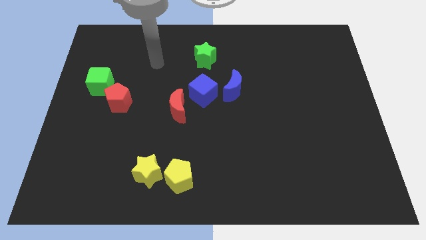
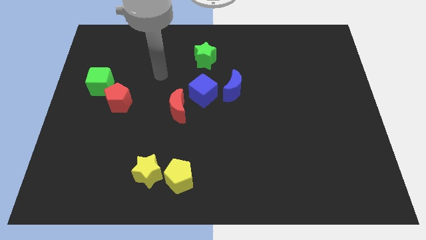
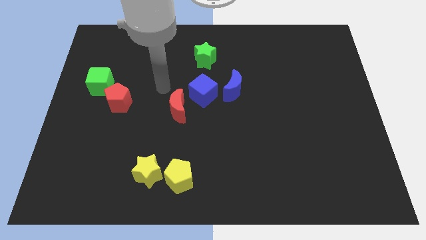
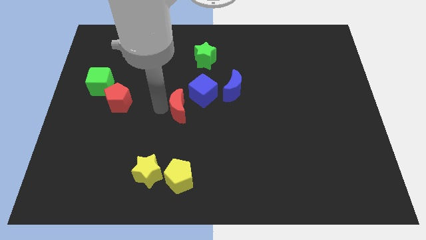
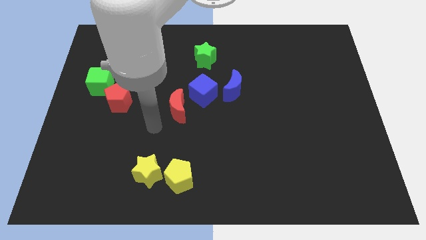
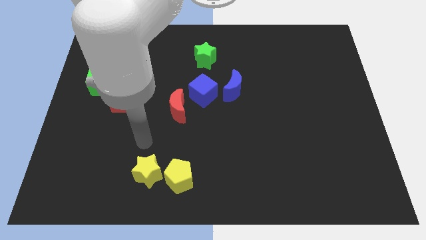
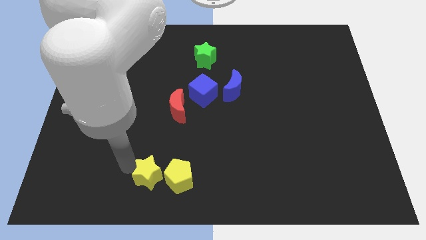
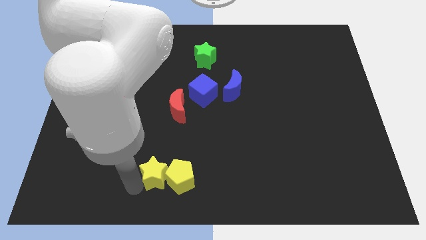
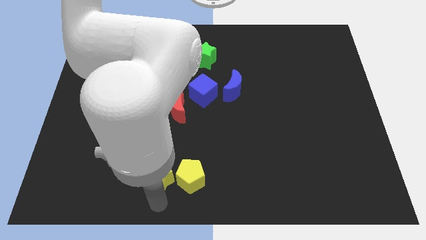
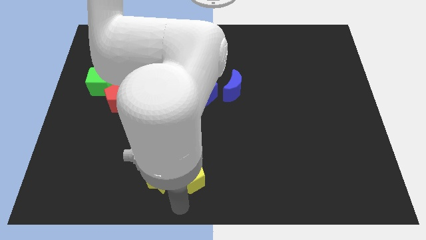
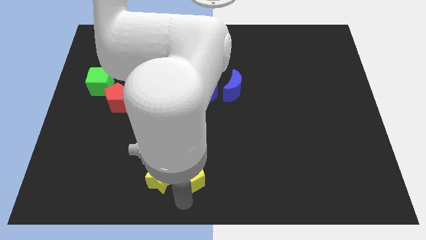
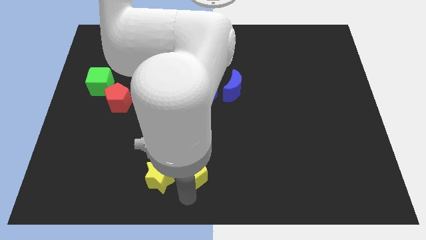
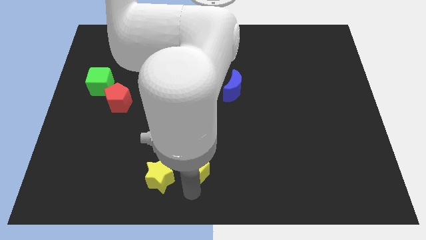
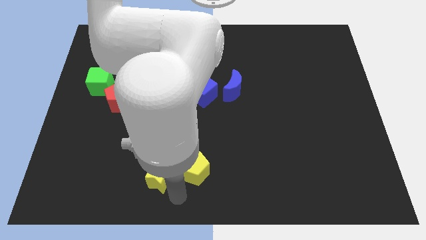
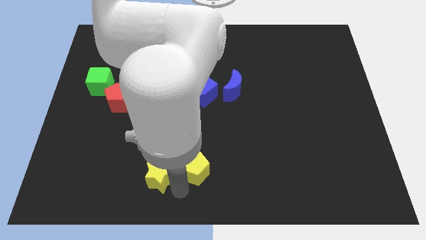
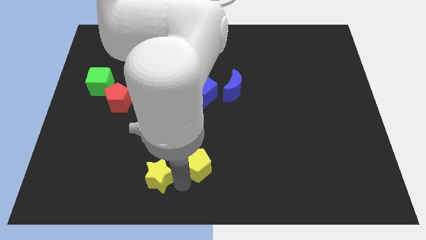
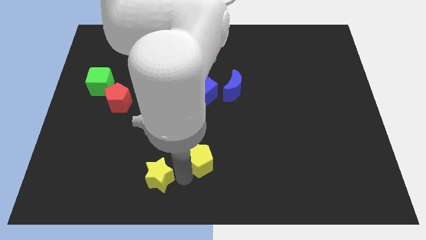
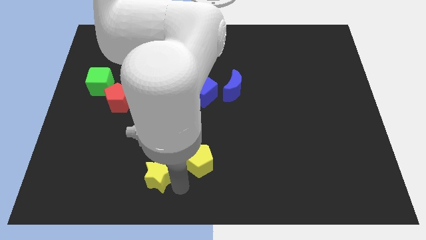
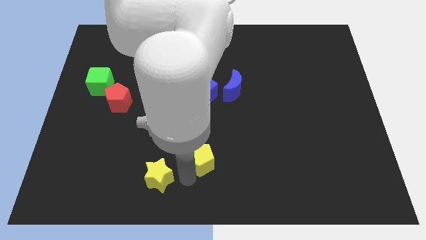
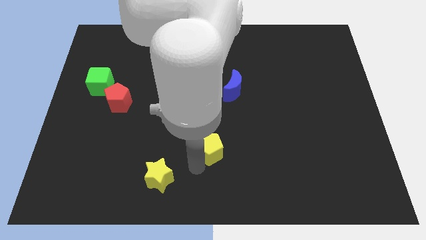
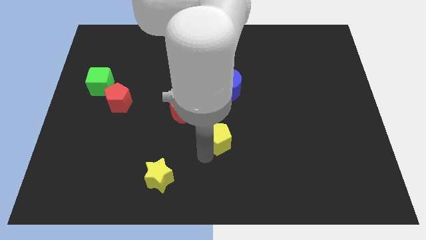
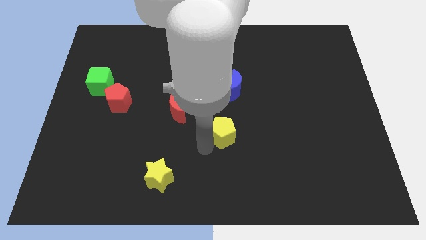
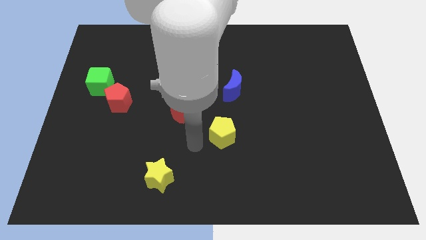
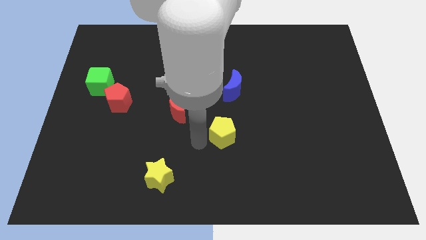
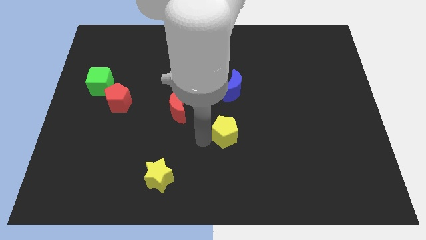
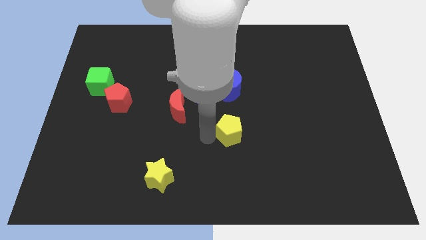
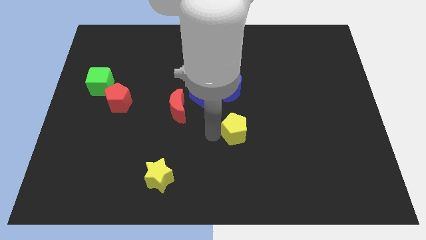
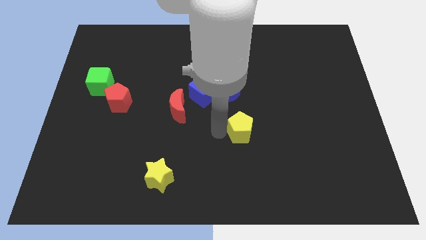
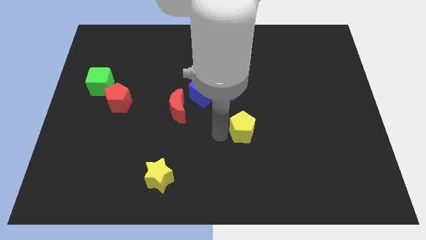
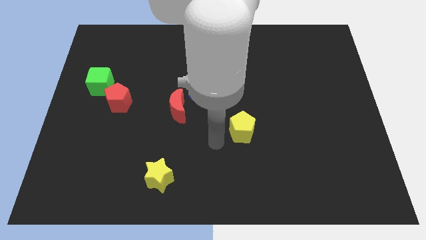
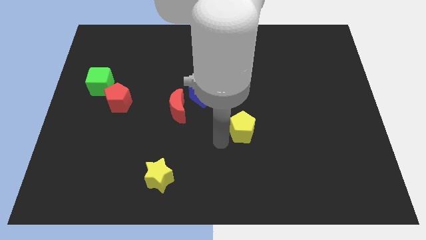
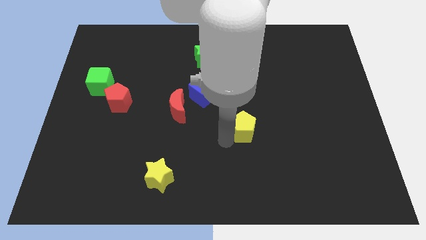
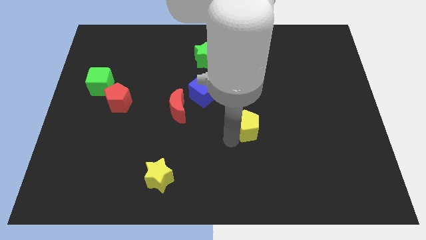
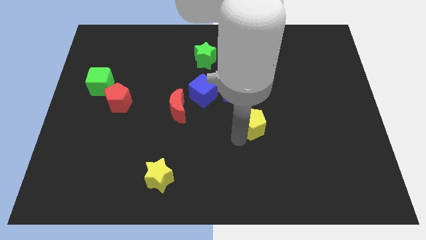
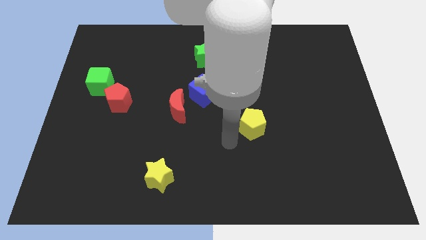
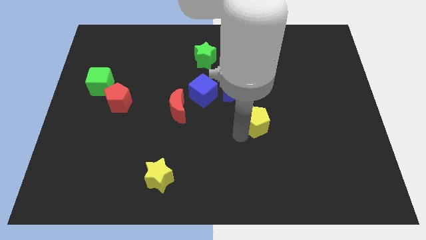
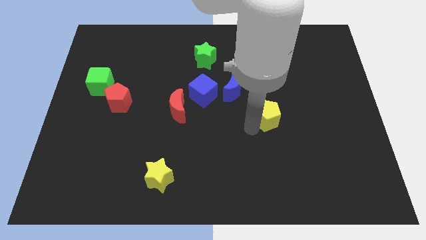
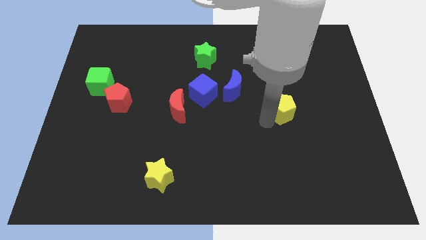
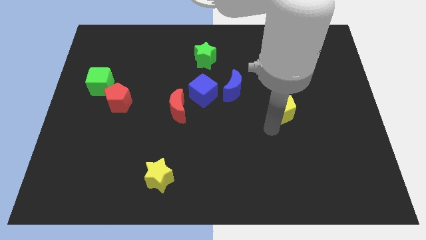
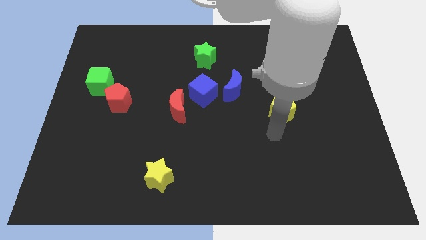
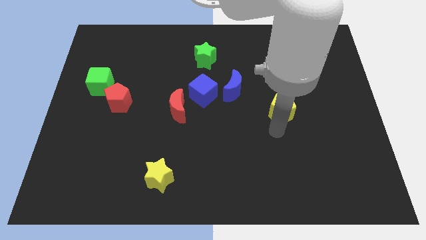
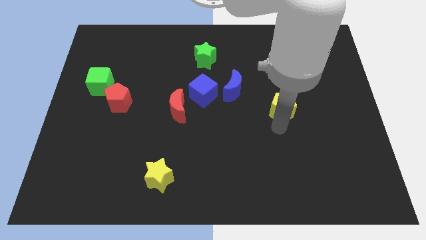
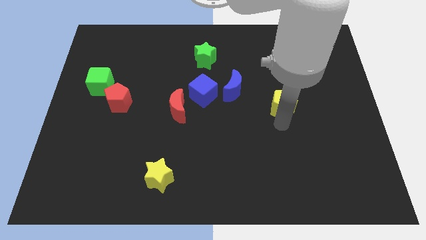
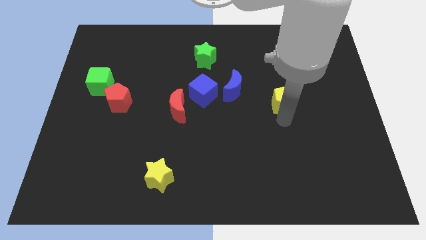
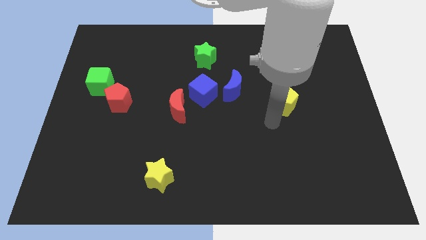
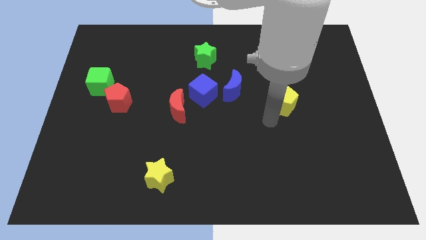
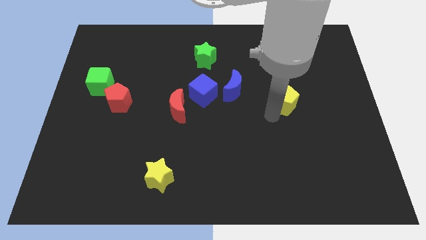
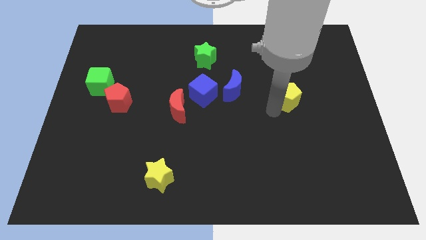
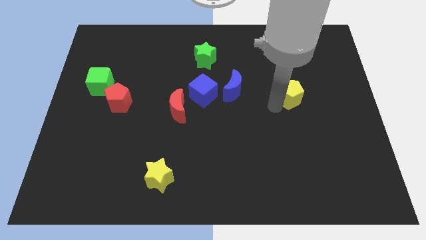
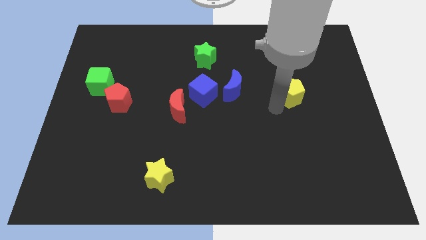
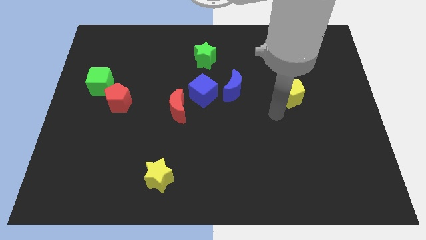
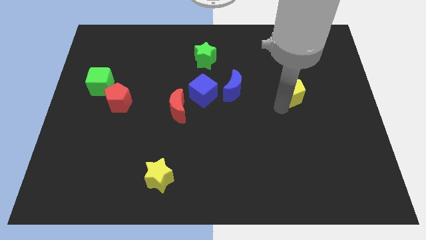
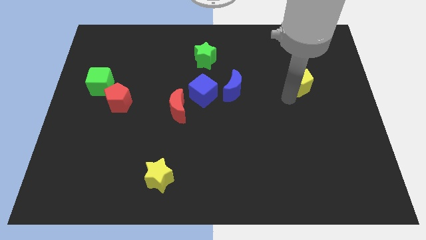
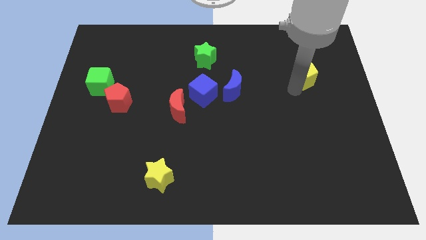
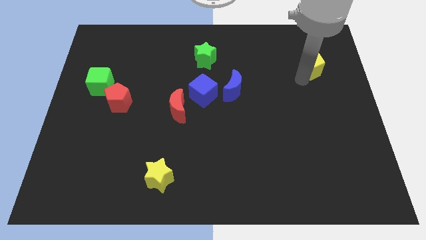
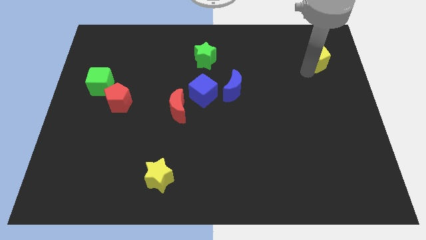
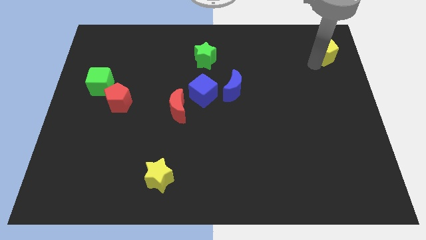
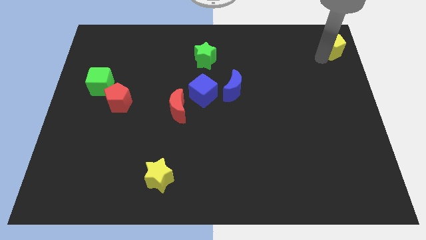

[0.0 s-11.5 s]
push the yellow pentagon to the top right corner

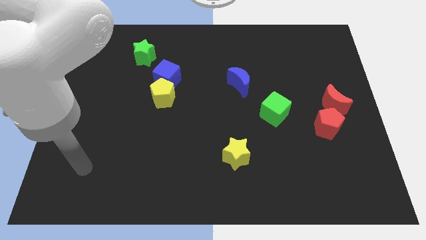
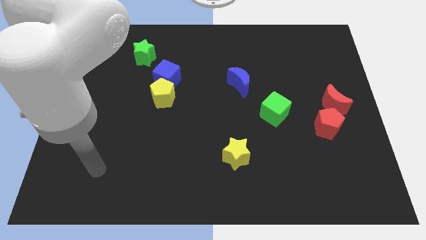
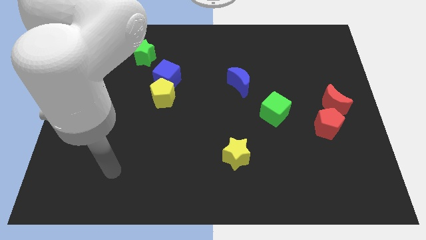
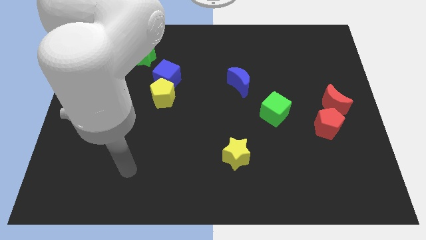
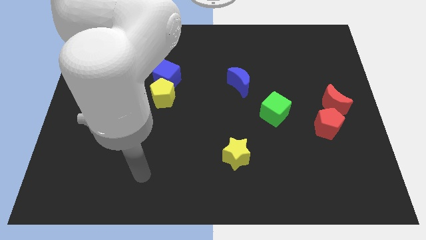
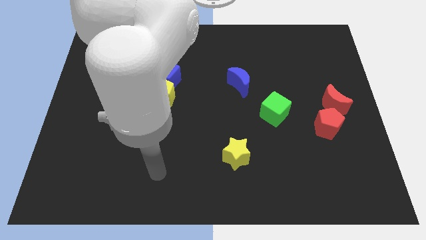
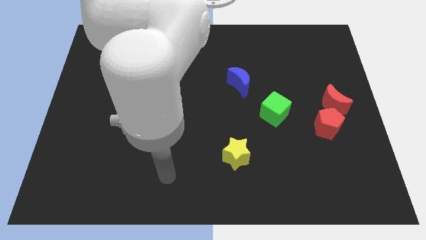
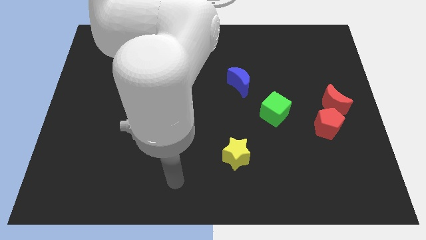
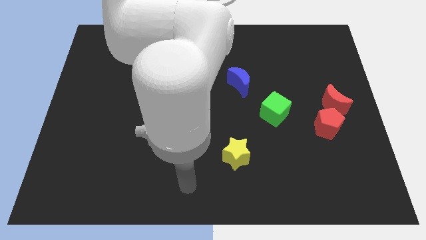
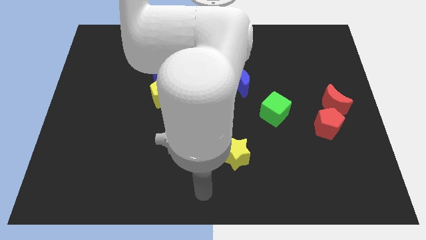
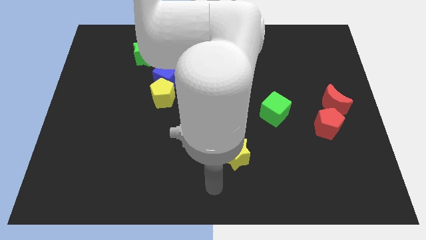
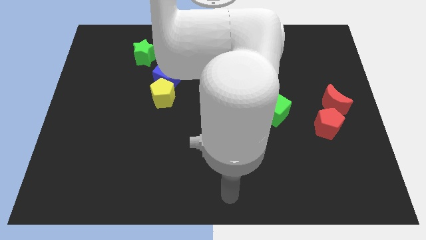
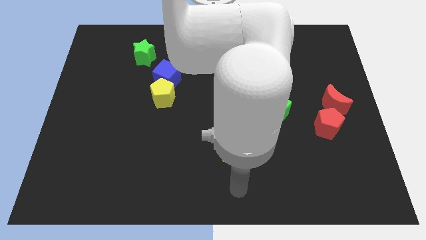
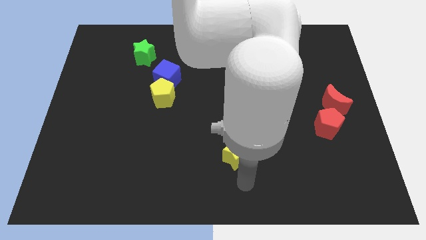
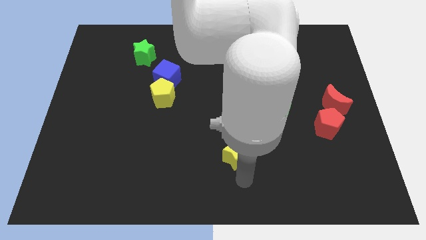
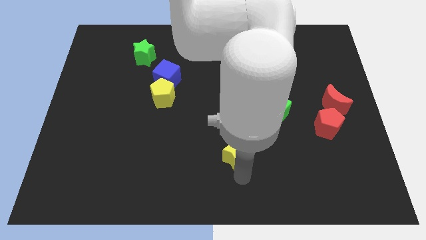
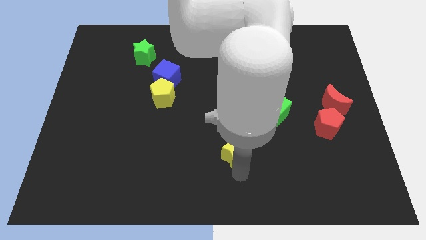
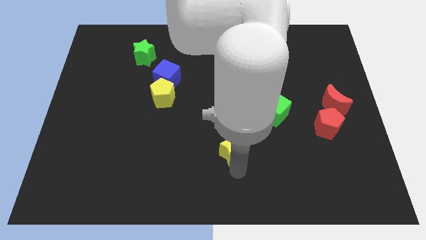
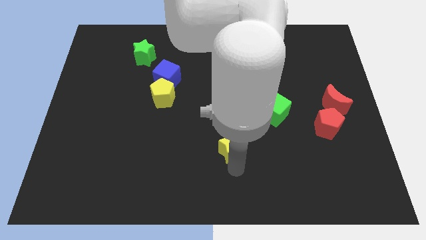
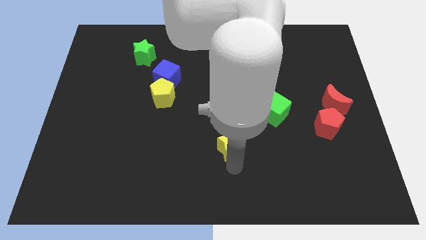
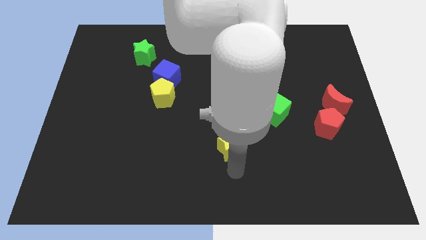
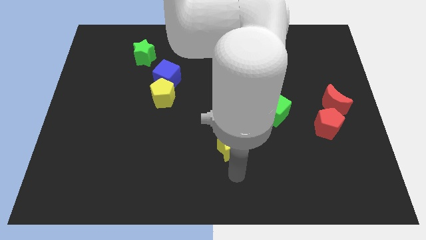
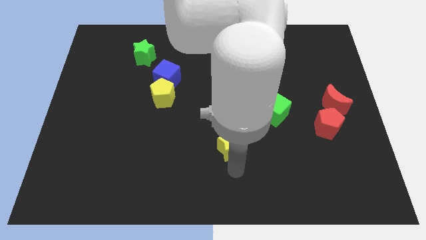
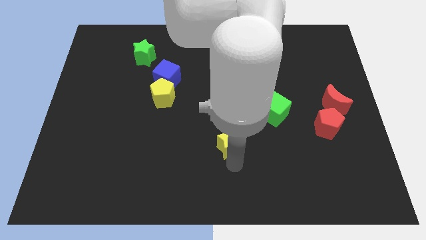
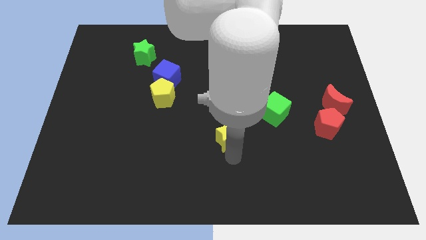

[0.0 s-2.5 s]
move the yellow star to the middle
